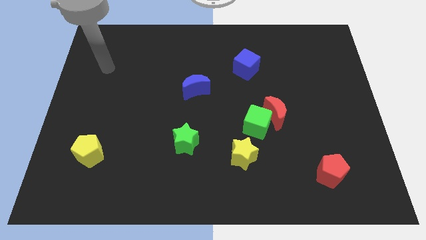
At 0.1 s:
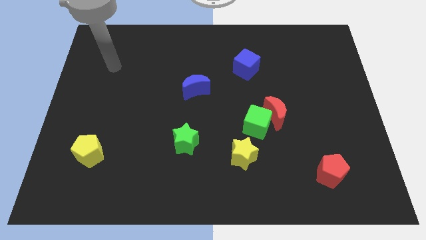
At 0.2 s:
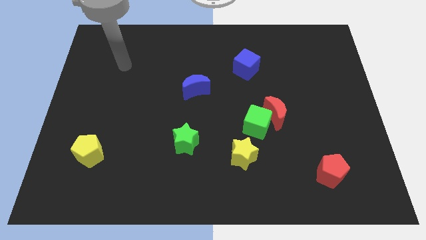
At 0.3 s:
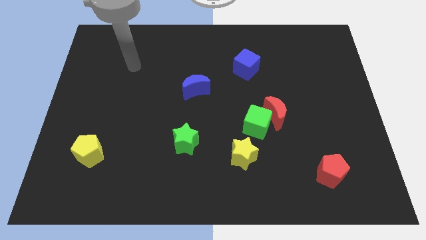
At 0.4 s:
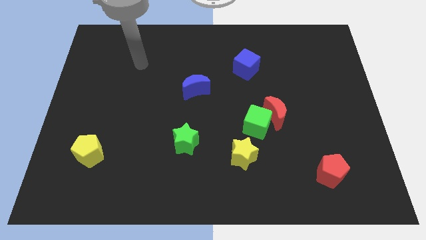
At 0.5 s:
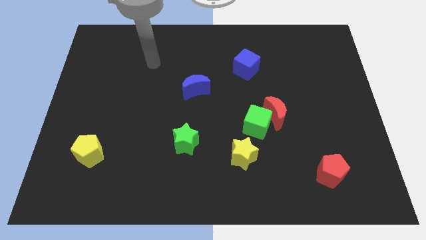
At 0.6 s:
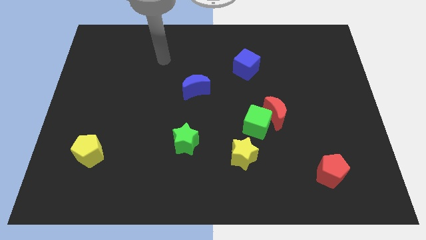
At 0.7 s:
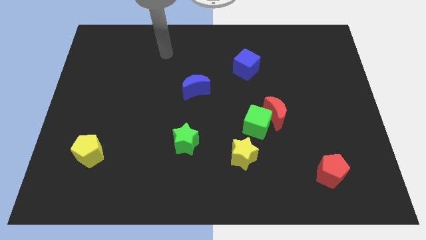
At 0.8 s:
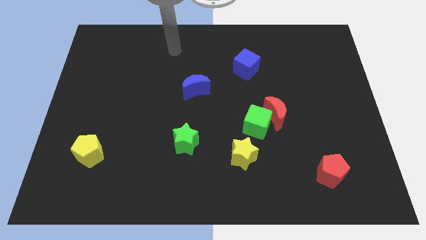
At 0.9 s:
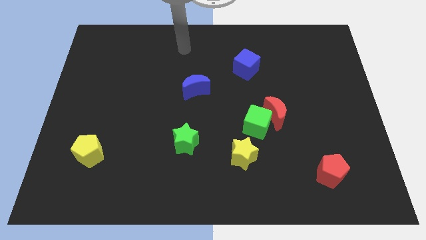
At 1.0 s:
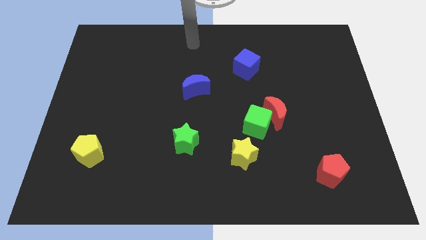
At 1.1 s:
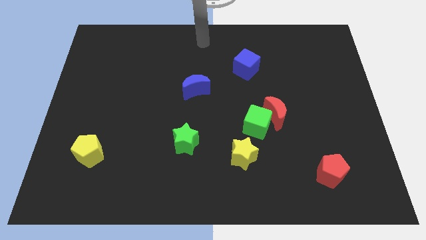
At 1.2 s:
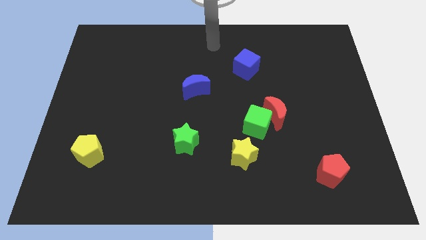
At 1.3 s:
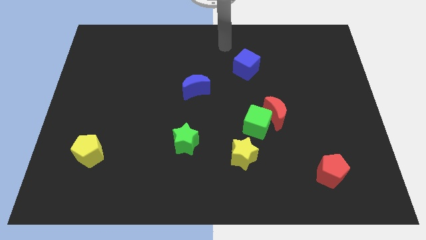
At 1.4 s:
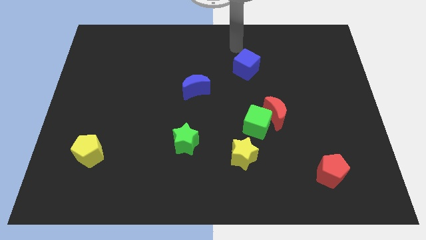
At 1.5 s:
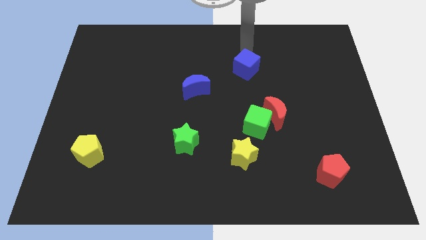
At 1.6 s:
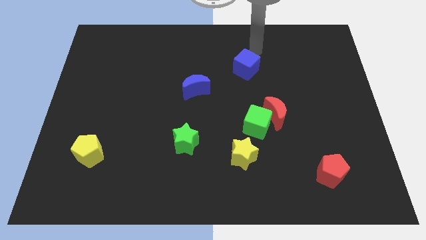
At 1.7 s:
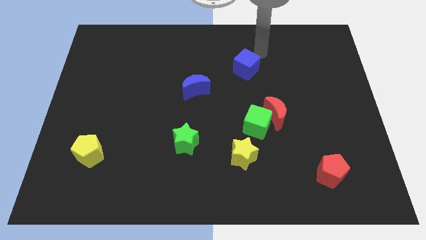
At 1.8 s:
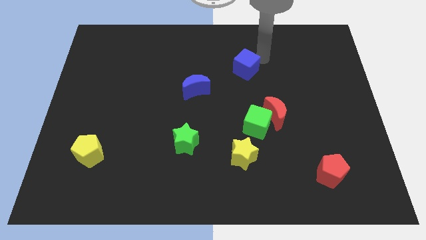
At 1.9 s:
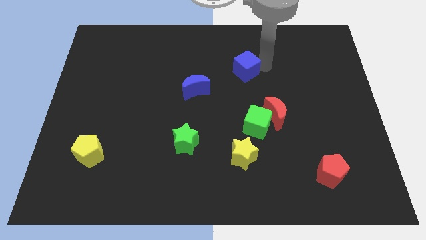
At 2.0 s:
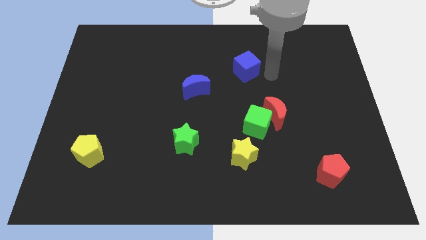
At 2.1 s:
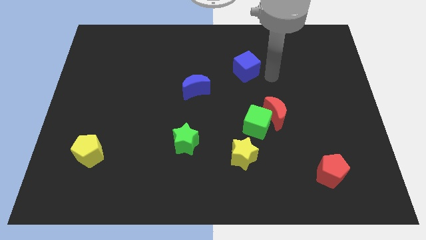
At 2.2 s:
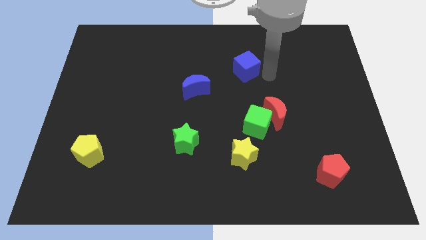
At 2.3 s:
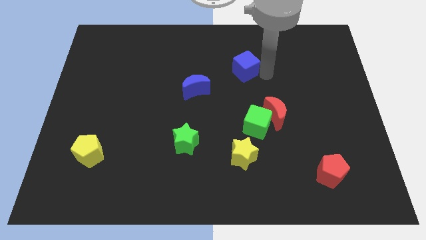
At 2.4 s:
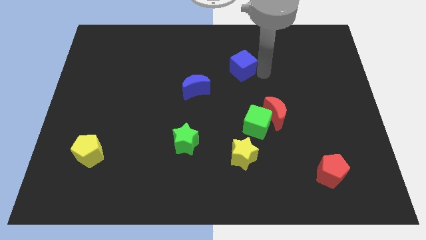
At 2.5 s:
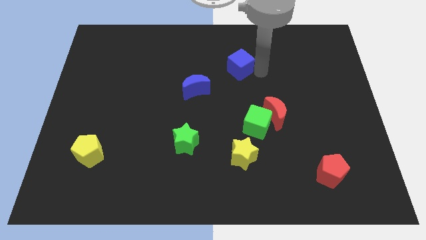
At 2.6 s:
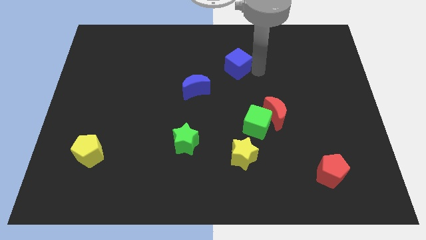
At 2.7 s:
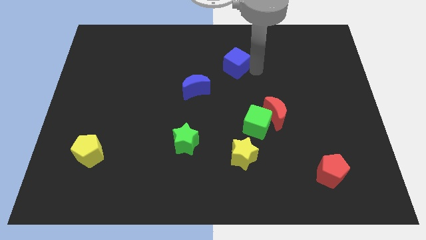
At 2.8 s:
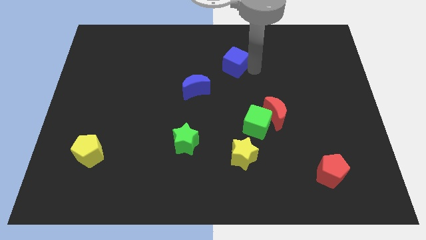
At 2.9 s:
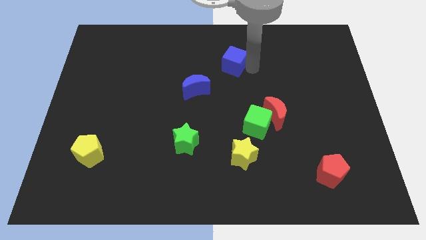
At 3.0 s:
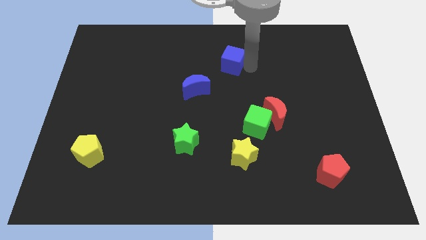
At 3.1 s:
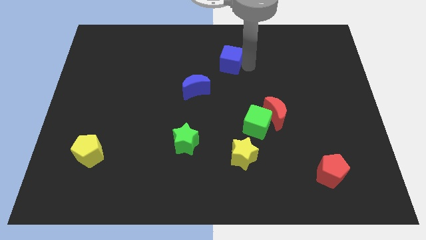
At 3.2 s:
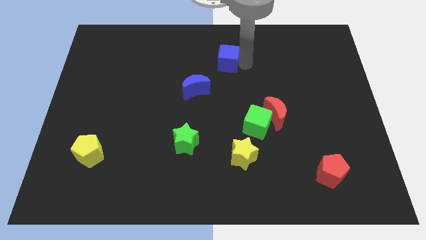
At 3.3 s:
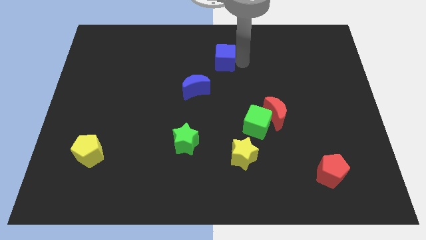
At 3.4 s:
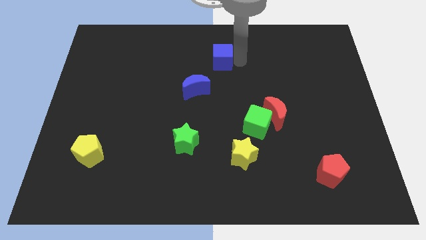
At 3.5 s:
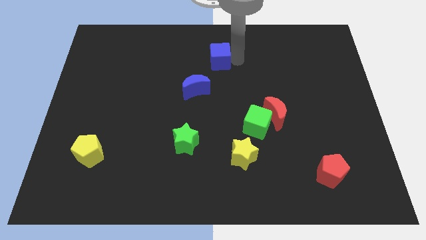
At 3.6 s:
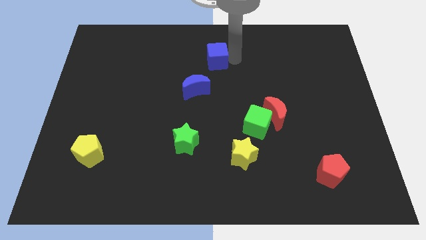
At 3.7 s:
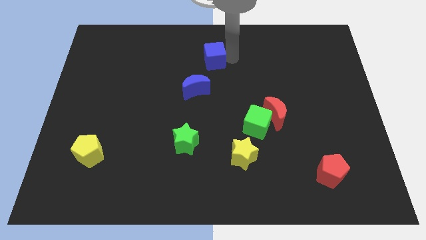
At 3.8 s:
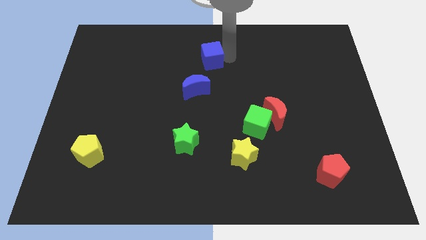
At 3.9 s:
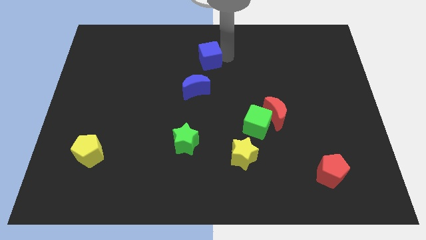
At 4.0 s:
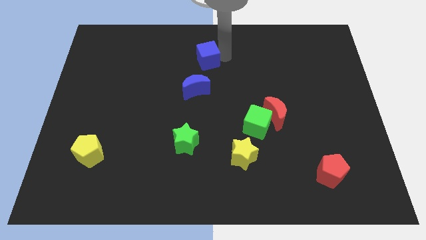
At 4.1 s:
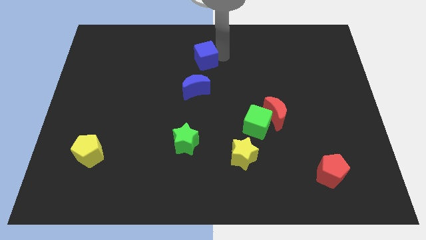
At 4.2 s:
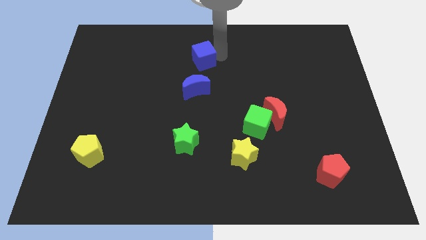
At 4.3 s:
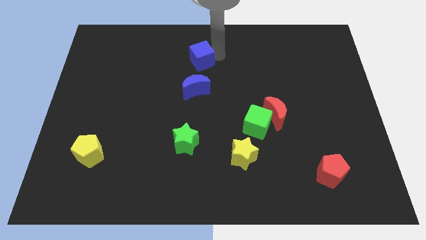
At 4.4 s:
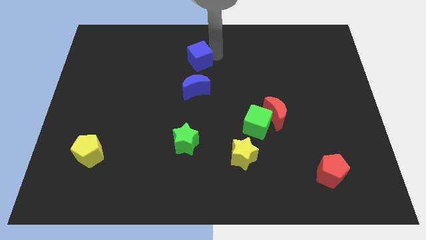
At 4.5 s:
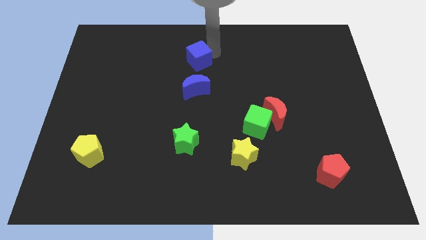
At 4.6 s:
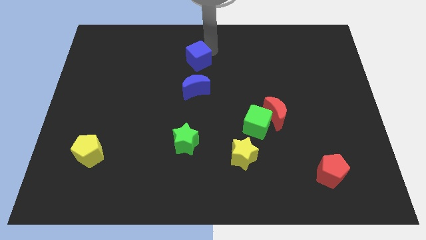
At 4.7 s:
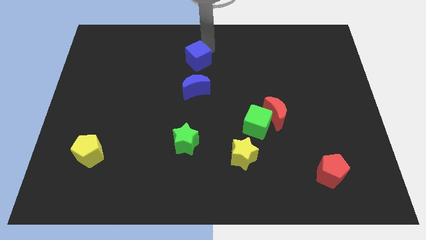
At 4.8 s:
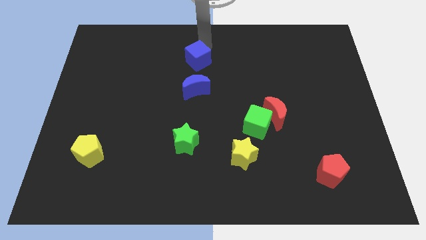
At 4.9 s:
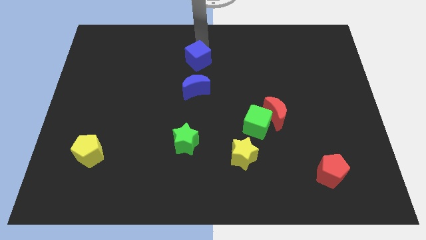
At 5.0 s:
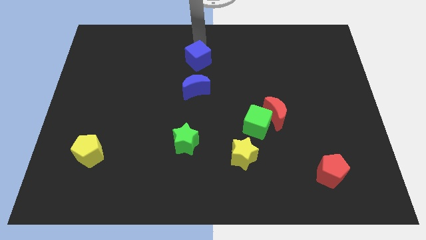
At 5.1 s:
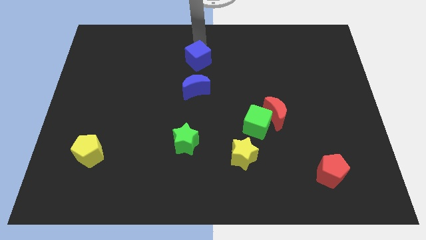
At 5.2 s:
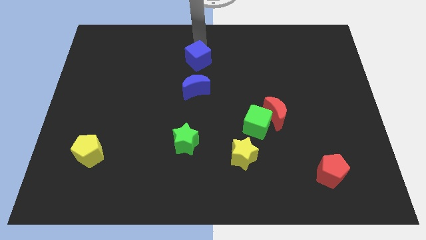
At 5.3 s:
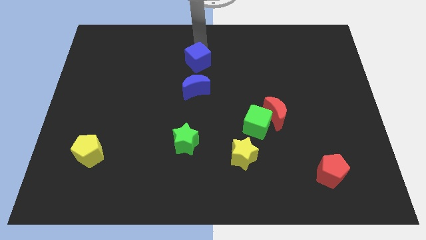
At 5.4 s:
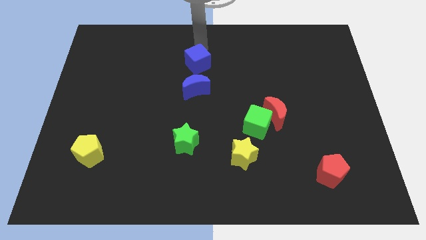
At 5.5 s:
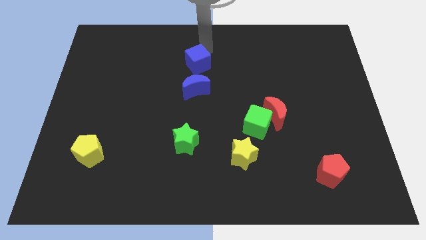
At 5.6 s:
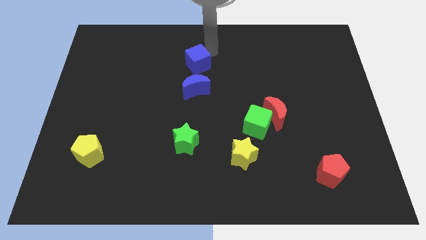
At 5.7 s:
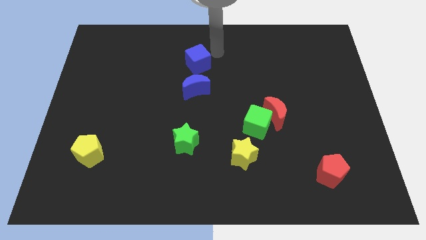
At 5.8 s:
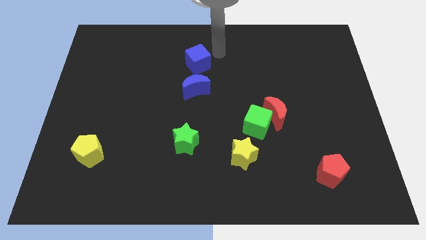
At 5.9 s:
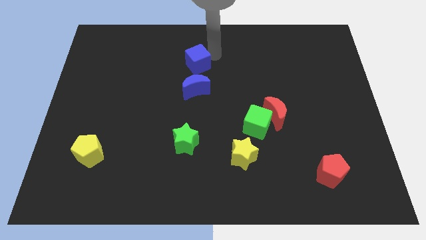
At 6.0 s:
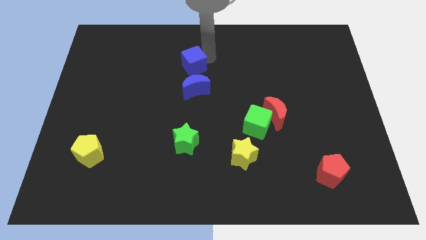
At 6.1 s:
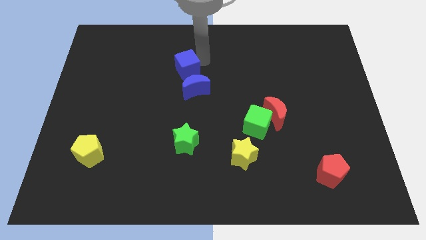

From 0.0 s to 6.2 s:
slide the blue cube to the top left side of the blue moon

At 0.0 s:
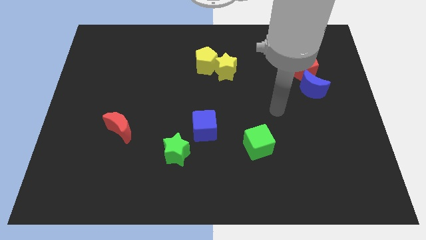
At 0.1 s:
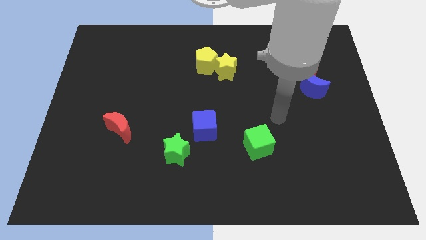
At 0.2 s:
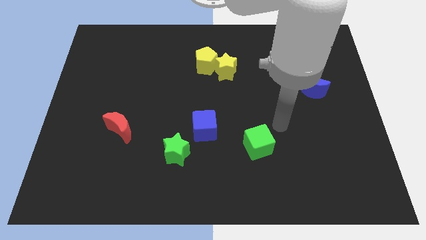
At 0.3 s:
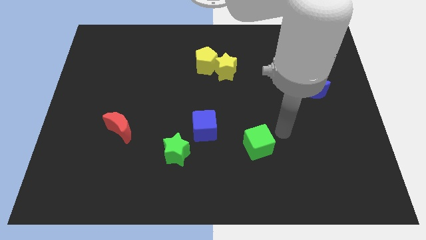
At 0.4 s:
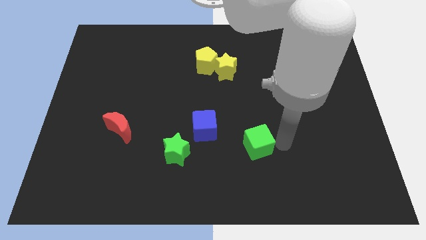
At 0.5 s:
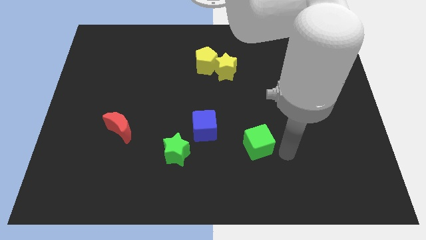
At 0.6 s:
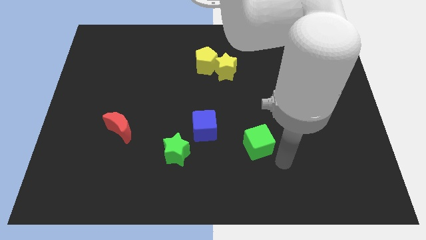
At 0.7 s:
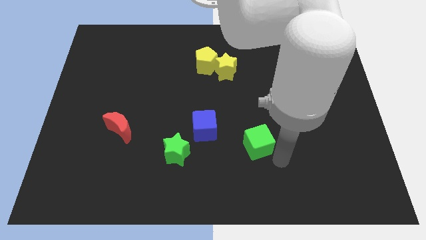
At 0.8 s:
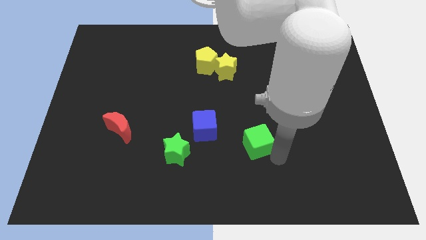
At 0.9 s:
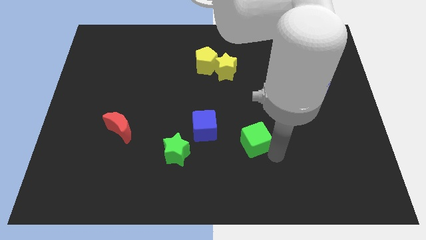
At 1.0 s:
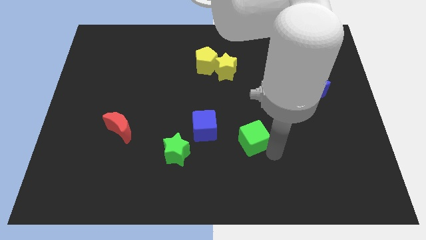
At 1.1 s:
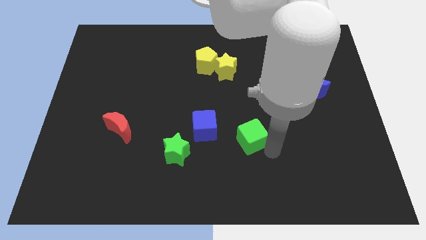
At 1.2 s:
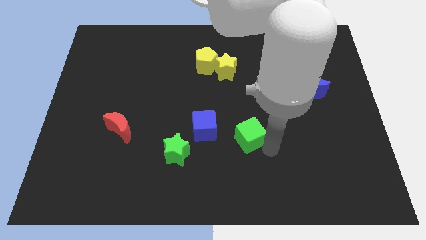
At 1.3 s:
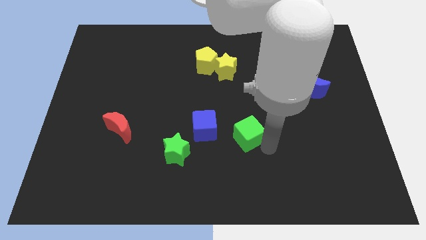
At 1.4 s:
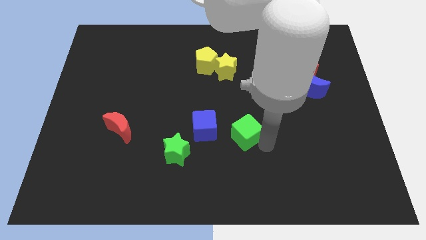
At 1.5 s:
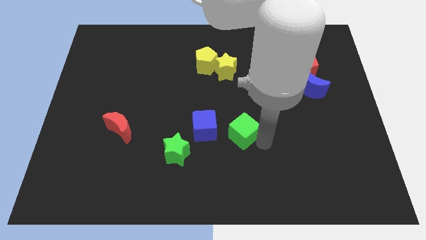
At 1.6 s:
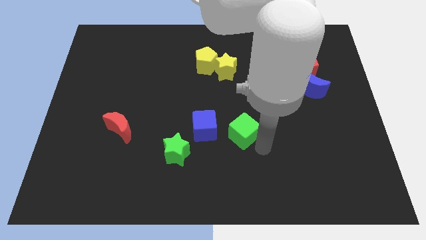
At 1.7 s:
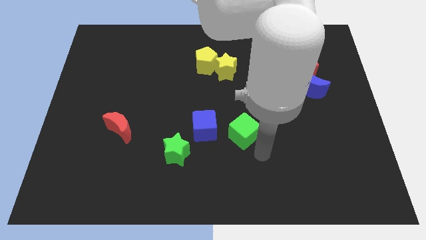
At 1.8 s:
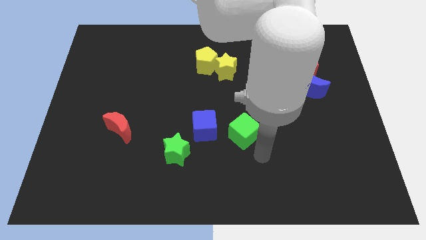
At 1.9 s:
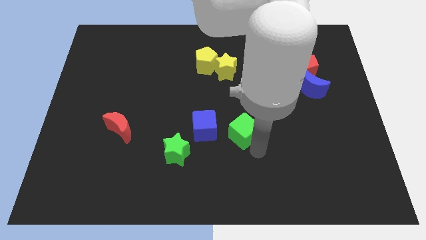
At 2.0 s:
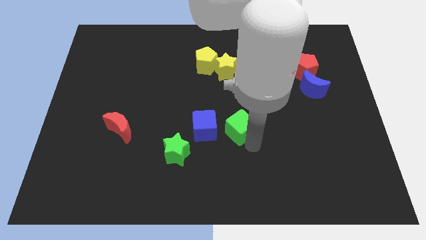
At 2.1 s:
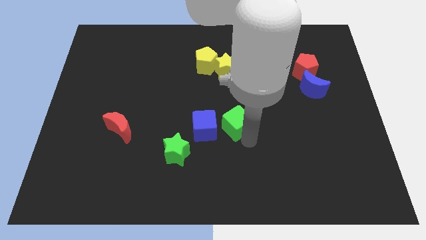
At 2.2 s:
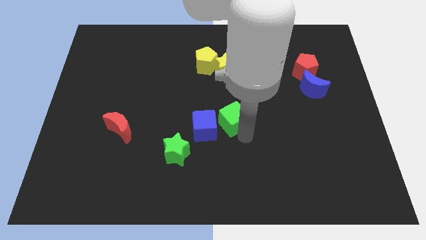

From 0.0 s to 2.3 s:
slide the green cube to the bottom of the yellow star
